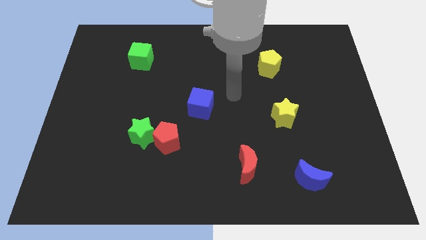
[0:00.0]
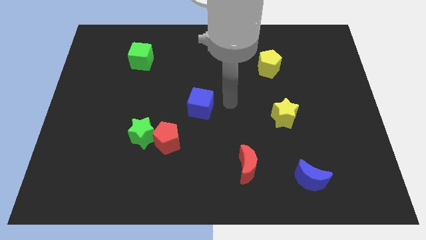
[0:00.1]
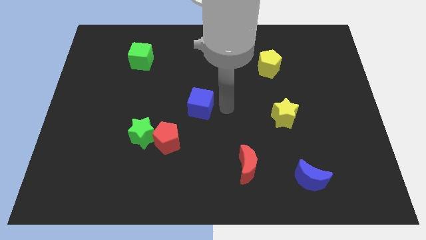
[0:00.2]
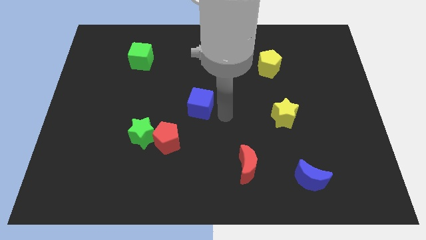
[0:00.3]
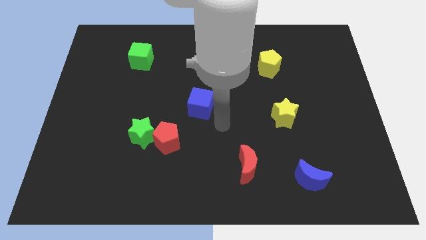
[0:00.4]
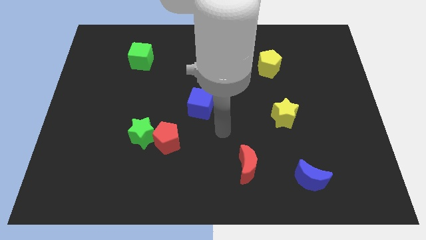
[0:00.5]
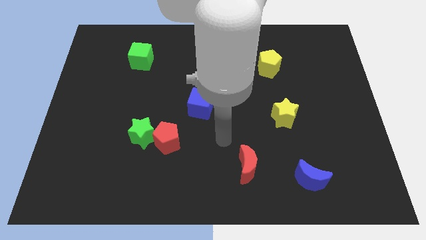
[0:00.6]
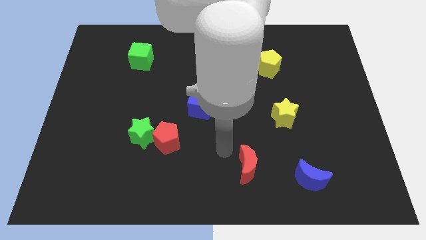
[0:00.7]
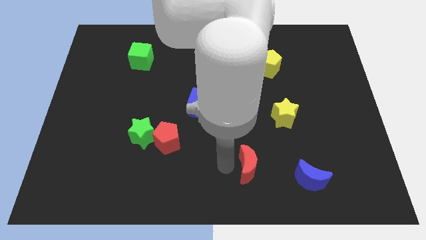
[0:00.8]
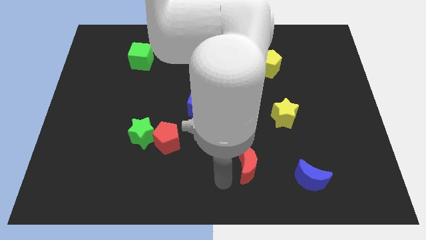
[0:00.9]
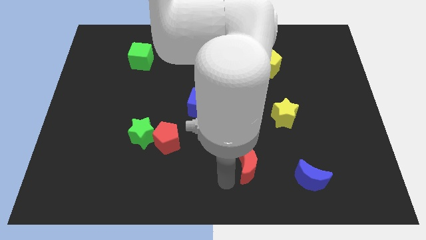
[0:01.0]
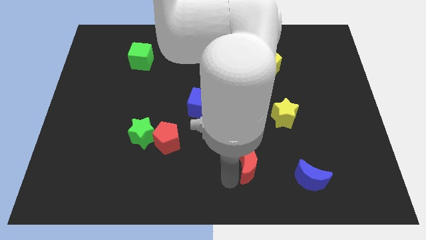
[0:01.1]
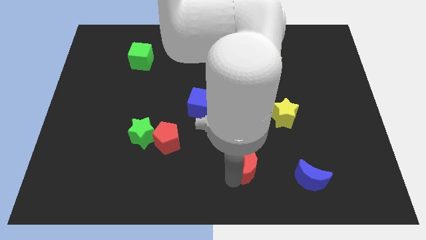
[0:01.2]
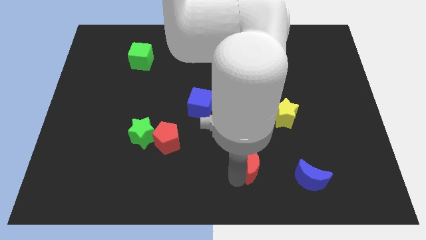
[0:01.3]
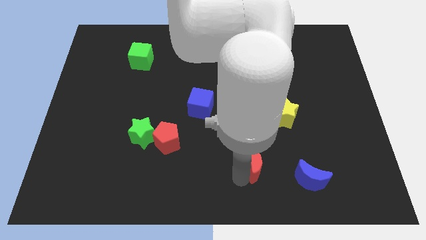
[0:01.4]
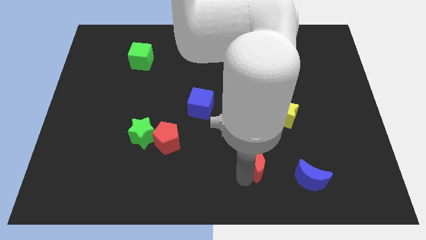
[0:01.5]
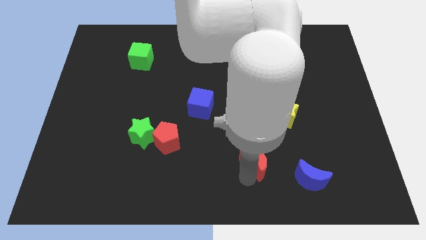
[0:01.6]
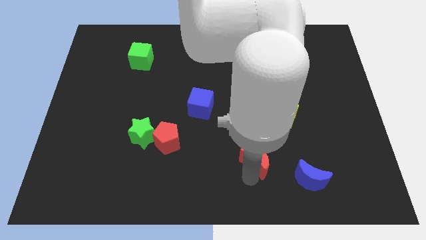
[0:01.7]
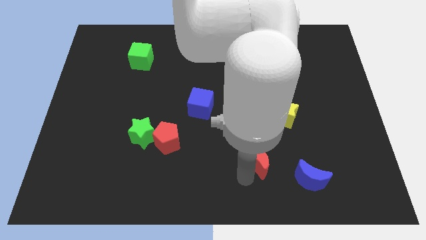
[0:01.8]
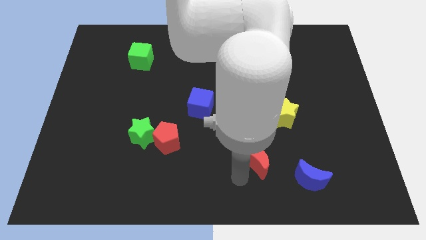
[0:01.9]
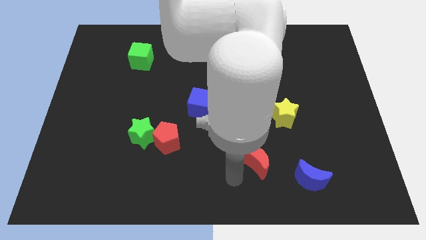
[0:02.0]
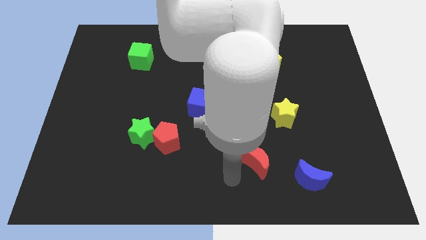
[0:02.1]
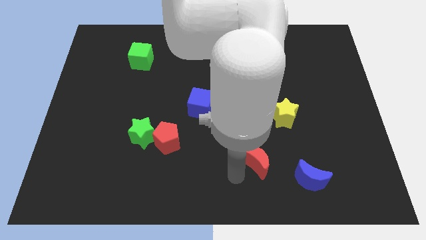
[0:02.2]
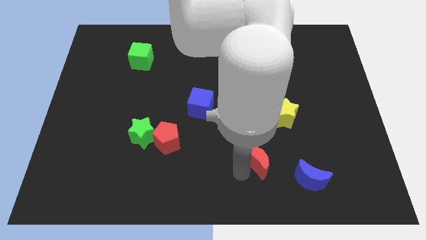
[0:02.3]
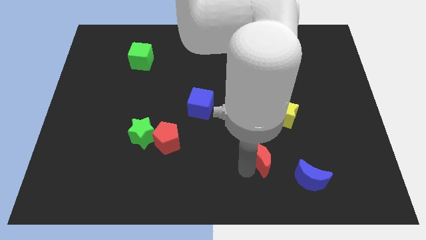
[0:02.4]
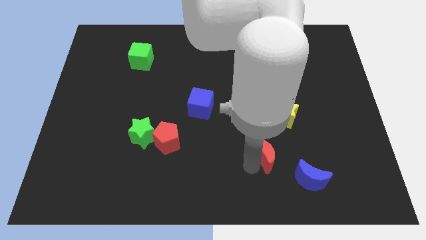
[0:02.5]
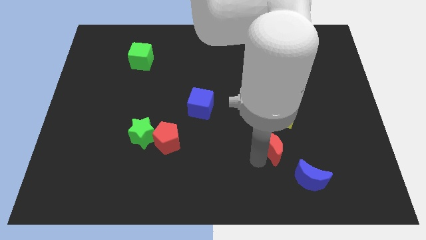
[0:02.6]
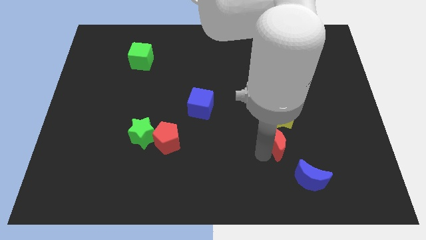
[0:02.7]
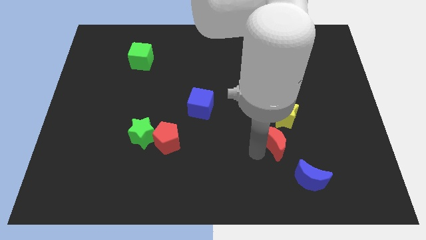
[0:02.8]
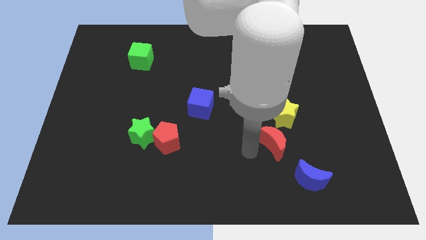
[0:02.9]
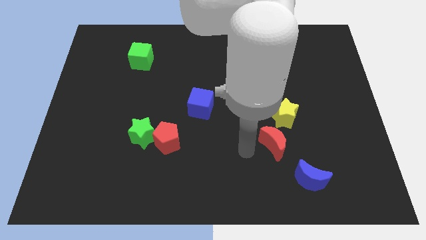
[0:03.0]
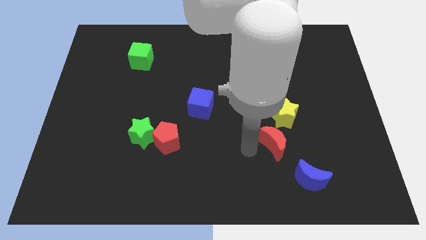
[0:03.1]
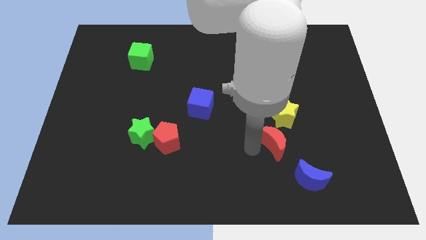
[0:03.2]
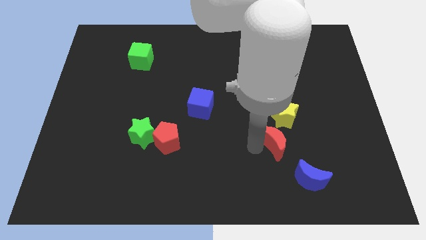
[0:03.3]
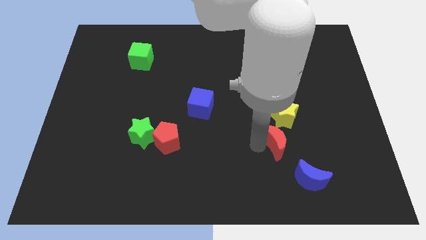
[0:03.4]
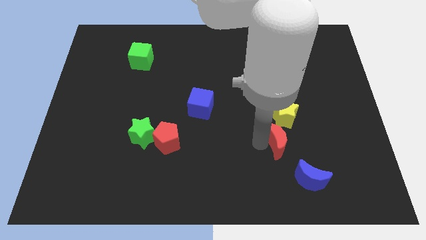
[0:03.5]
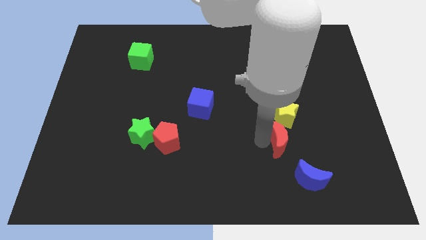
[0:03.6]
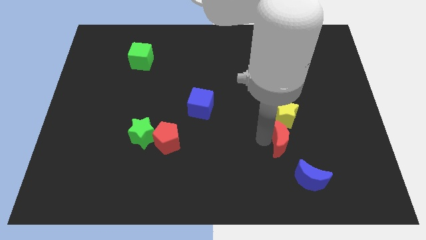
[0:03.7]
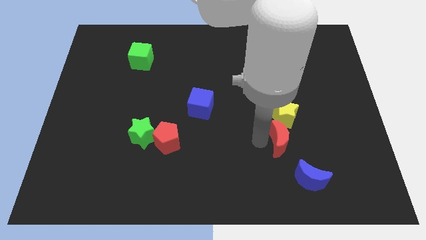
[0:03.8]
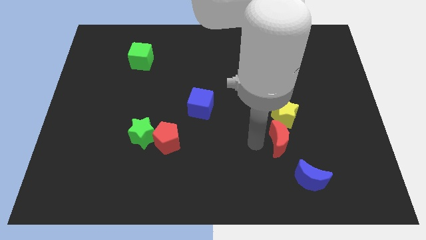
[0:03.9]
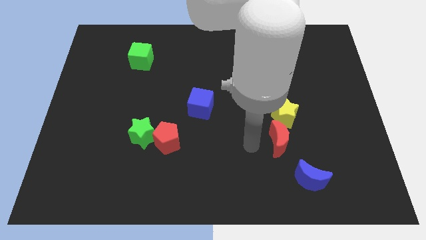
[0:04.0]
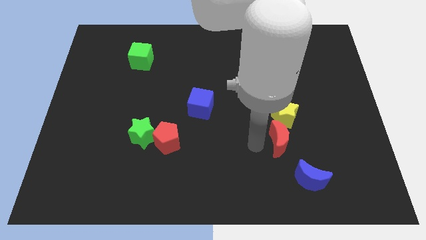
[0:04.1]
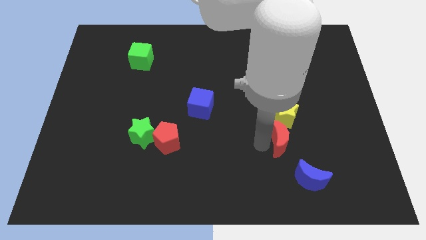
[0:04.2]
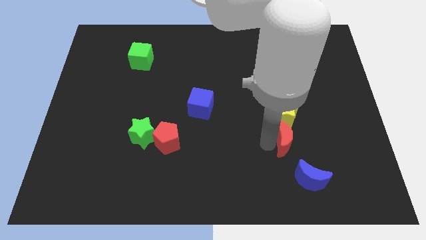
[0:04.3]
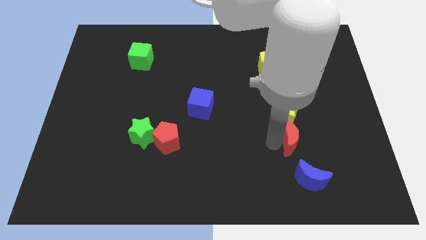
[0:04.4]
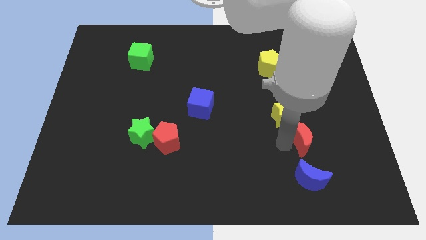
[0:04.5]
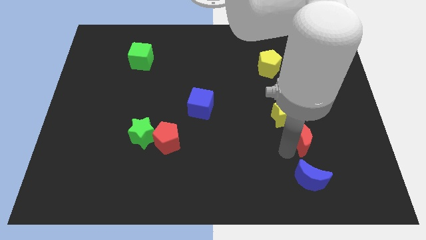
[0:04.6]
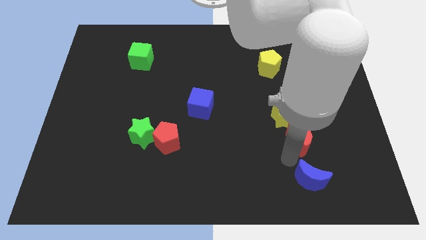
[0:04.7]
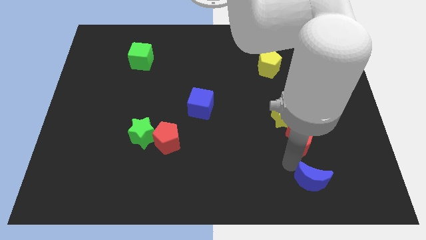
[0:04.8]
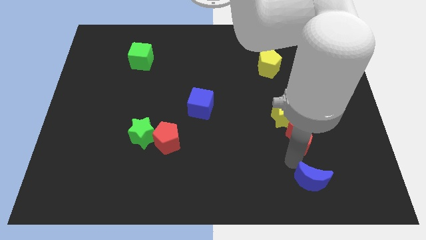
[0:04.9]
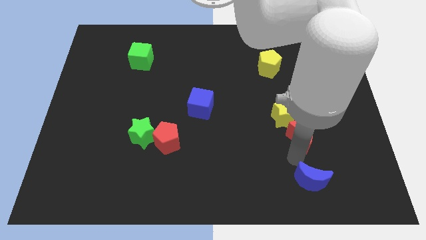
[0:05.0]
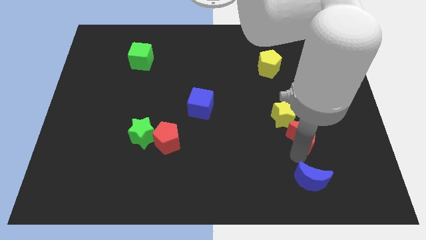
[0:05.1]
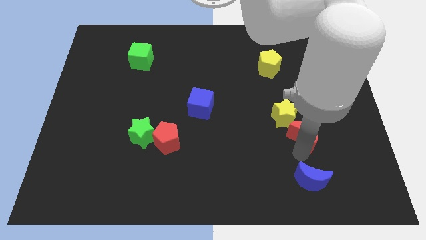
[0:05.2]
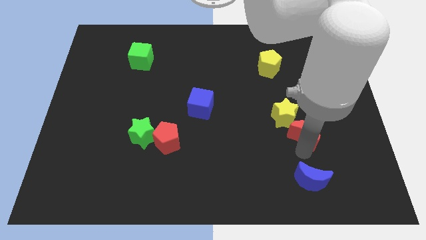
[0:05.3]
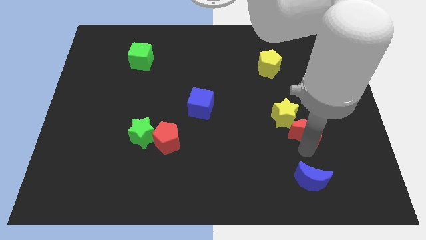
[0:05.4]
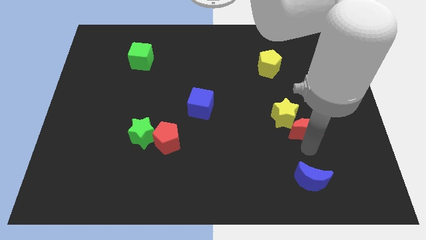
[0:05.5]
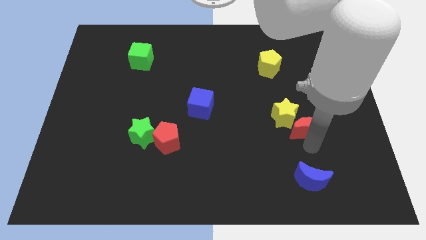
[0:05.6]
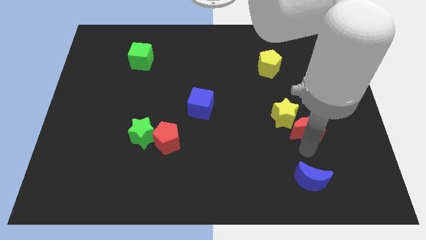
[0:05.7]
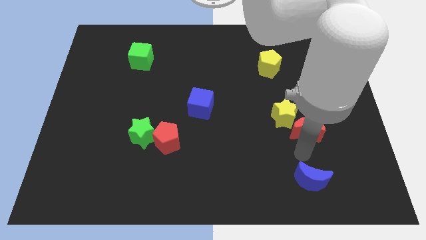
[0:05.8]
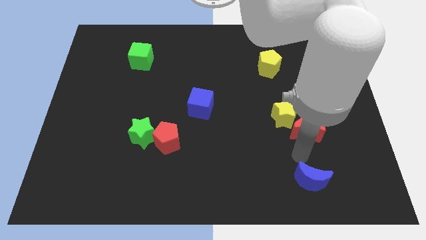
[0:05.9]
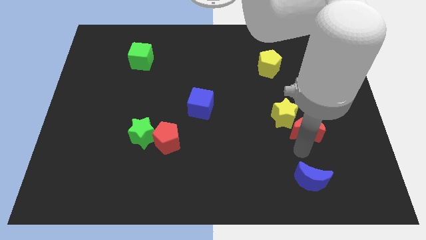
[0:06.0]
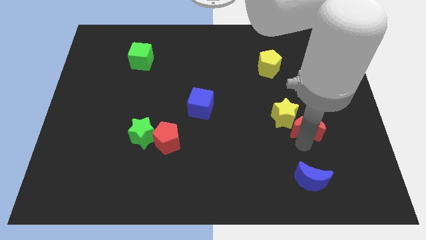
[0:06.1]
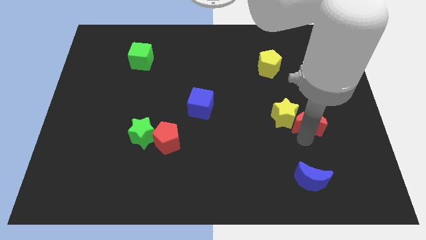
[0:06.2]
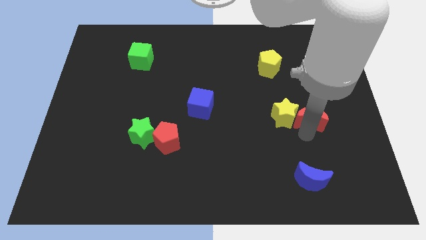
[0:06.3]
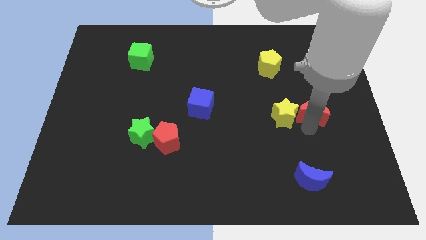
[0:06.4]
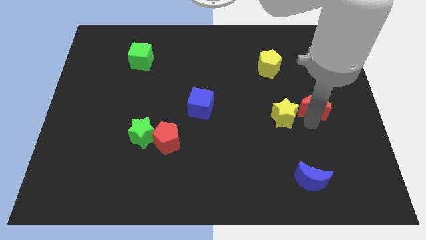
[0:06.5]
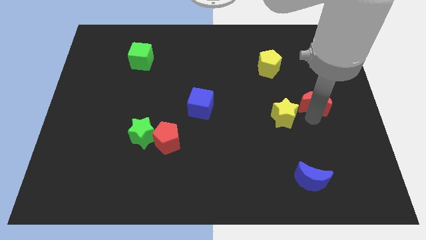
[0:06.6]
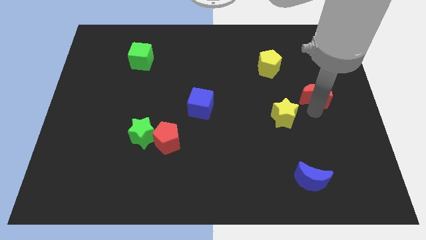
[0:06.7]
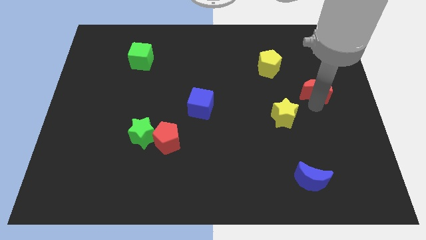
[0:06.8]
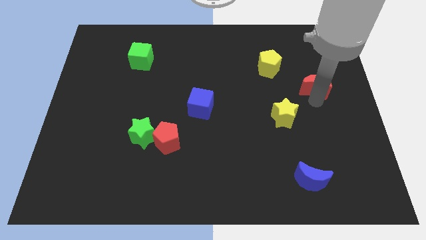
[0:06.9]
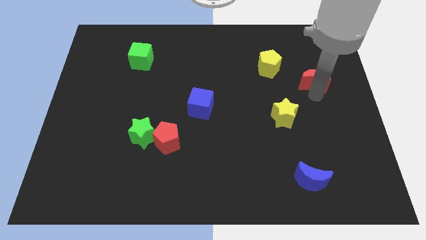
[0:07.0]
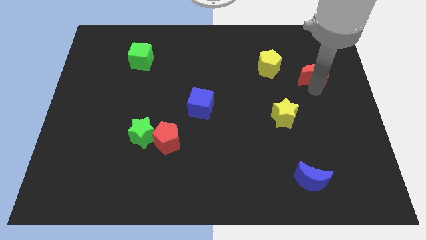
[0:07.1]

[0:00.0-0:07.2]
push the red moon to the right of the yellow pentagon

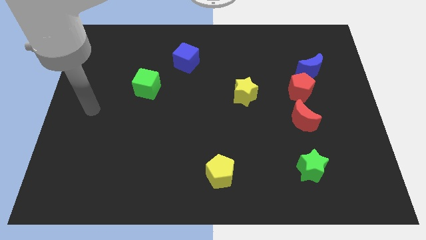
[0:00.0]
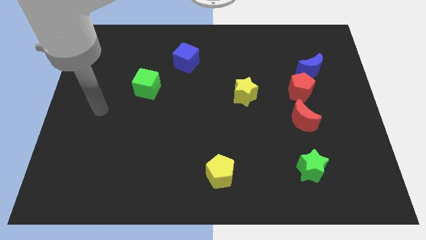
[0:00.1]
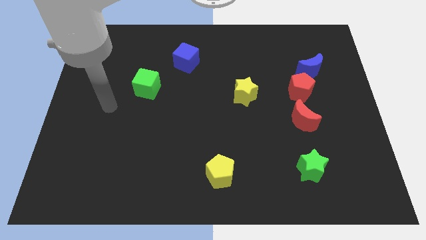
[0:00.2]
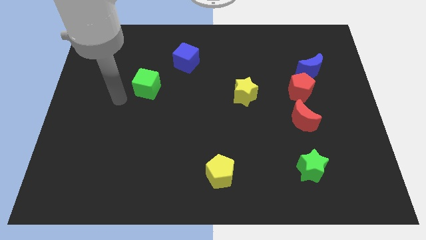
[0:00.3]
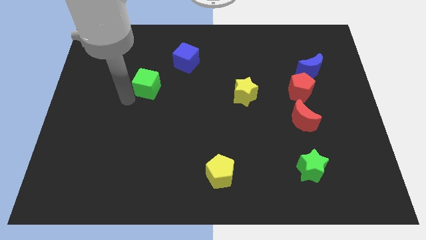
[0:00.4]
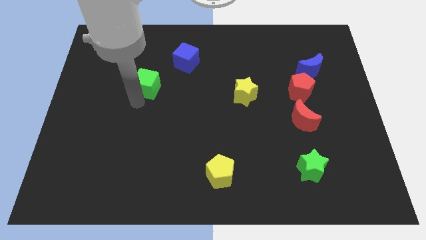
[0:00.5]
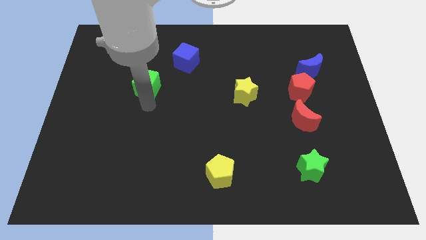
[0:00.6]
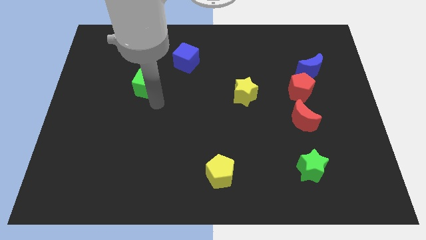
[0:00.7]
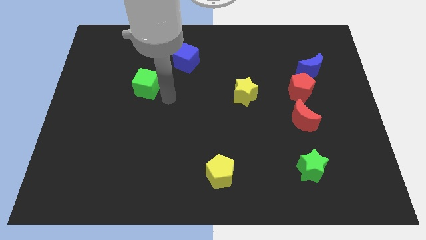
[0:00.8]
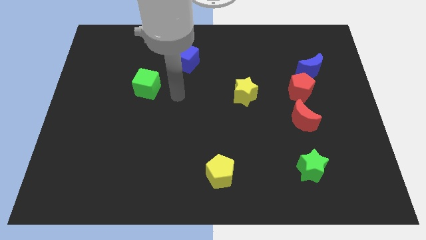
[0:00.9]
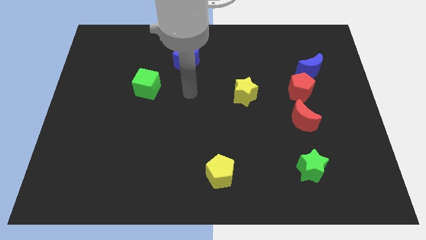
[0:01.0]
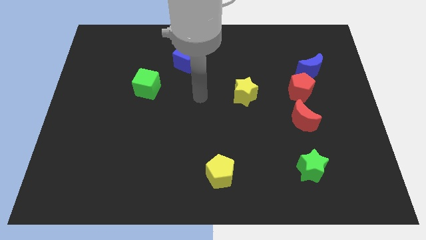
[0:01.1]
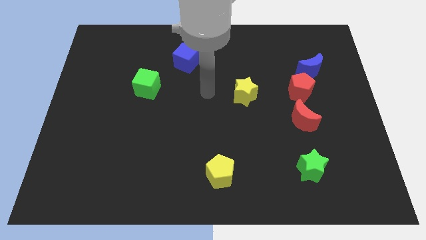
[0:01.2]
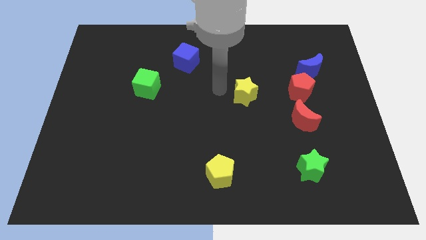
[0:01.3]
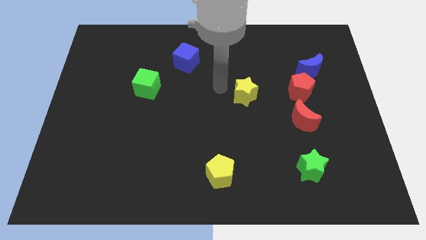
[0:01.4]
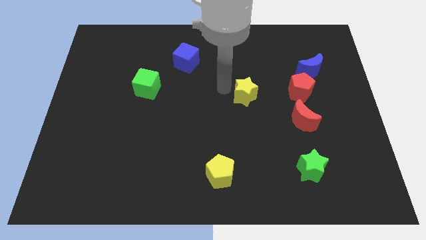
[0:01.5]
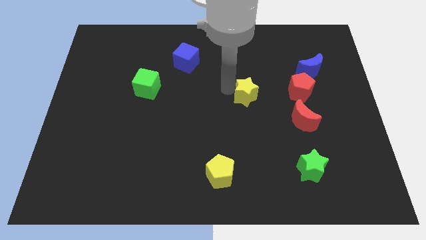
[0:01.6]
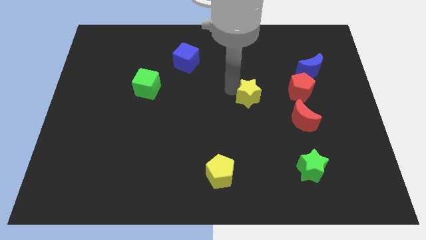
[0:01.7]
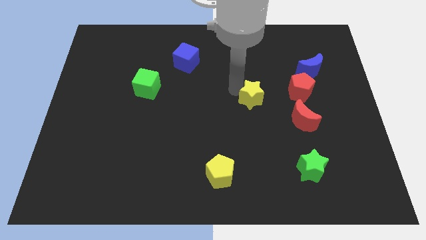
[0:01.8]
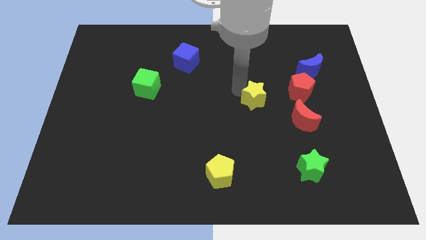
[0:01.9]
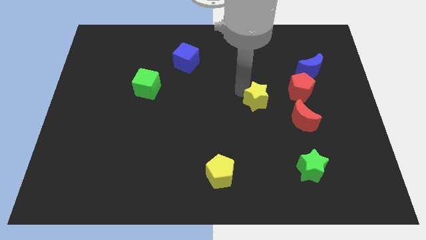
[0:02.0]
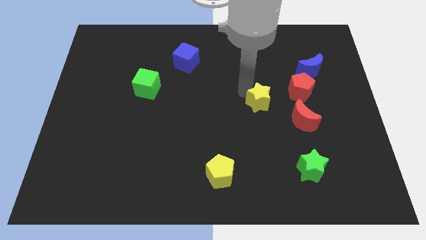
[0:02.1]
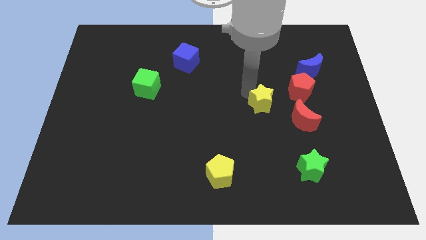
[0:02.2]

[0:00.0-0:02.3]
move the yellow star diagonally down and to the left of the red pentagon
